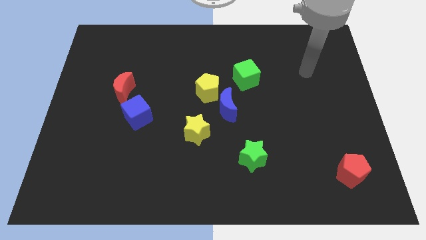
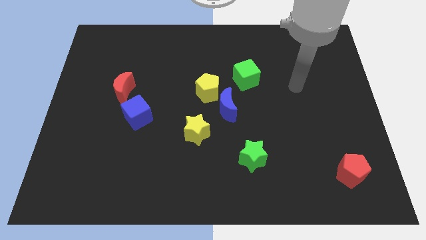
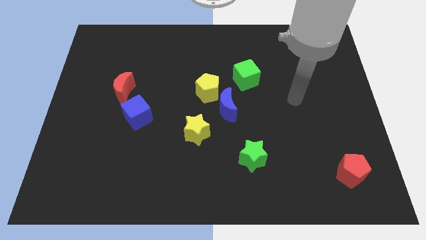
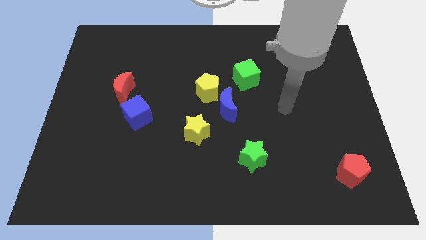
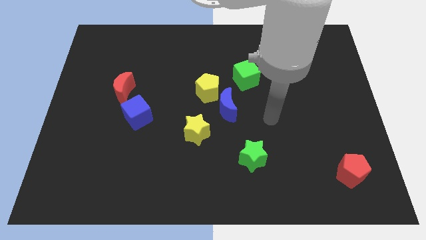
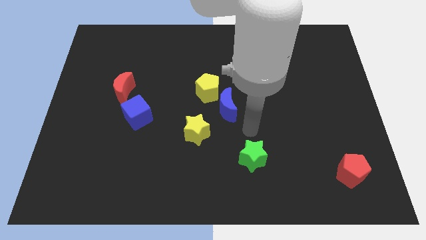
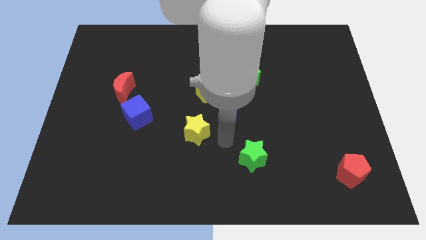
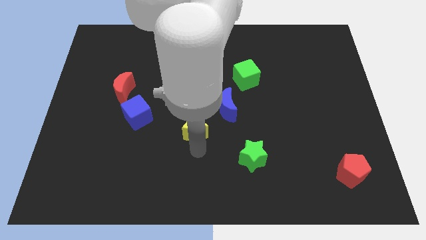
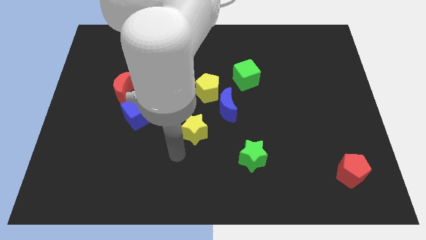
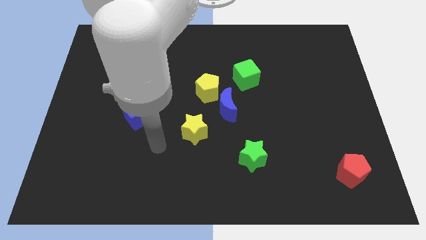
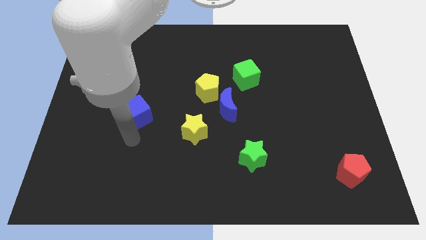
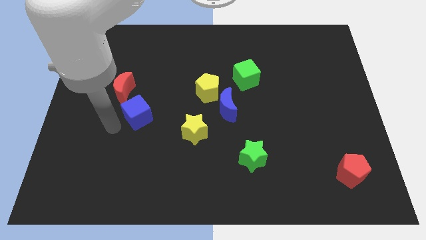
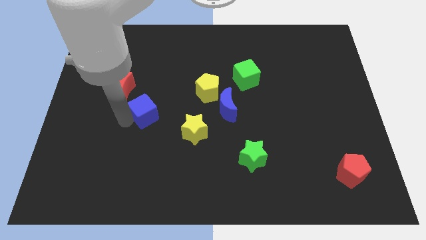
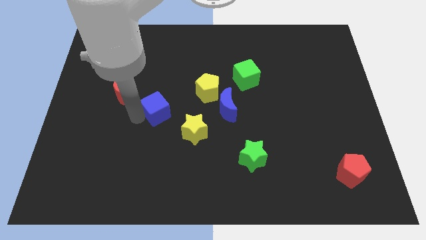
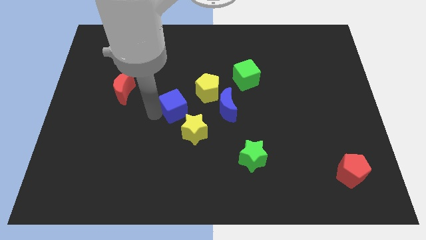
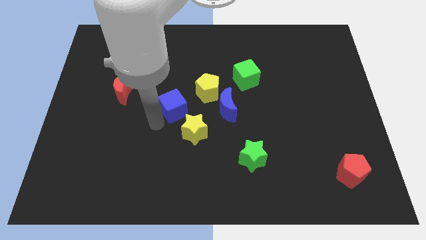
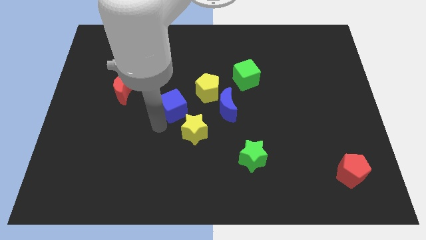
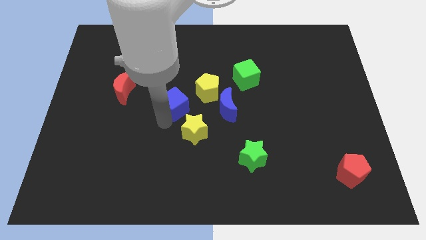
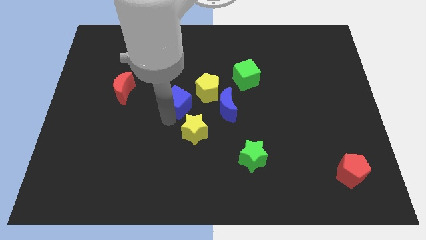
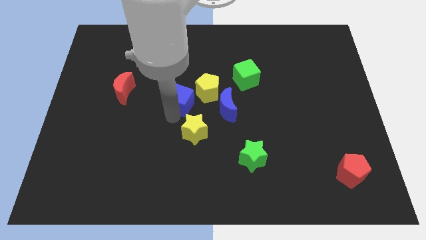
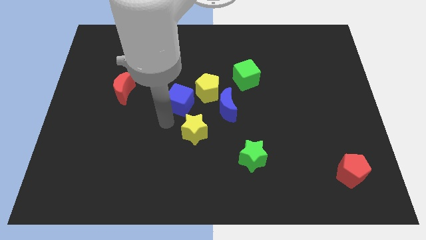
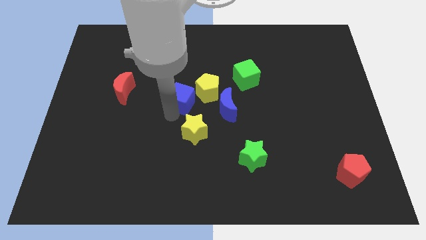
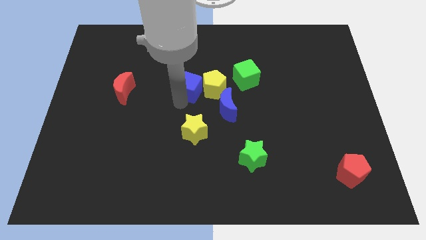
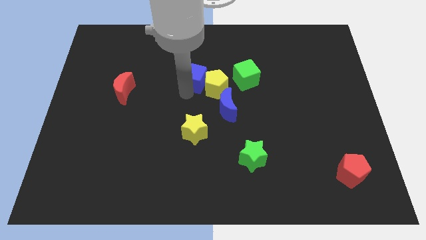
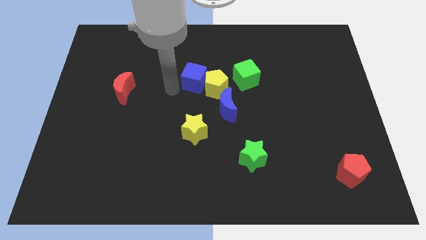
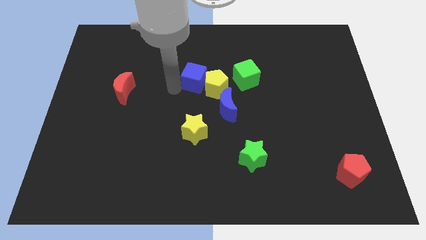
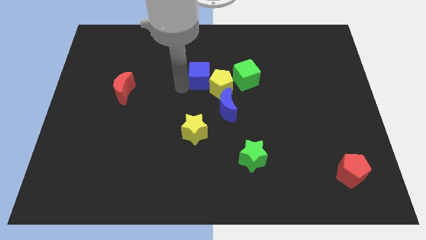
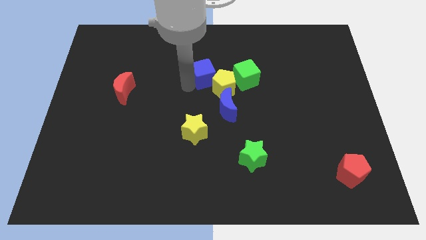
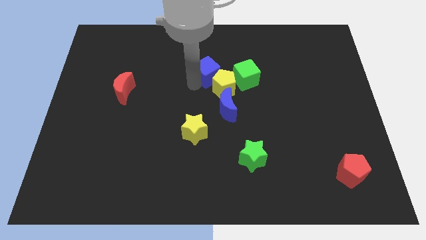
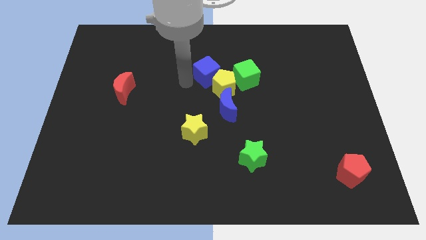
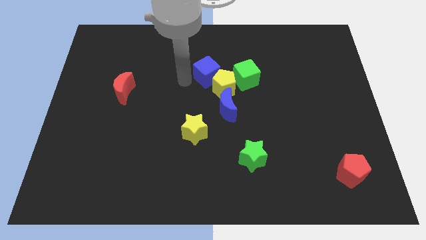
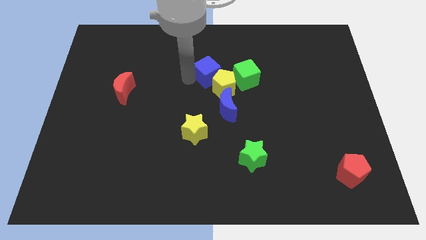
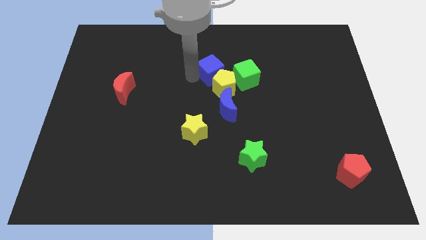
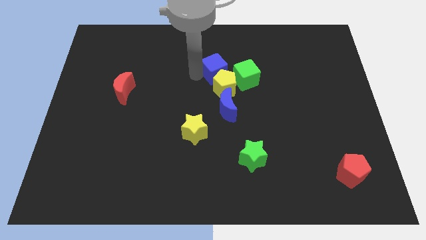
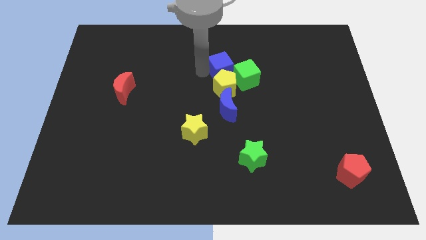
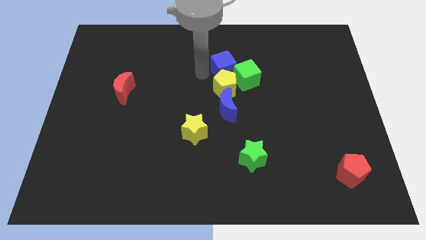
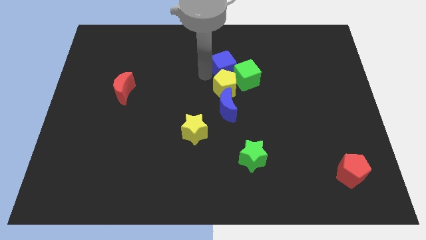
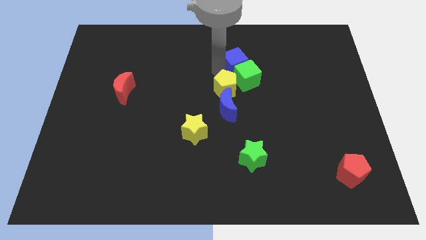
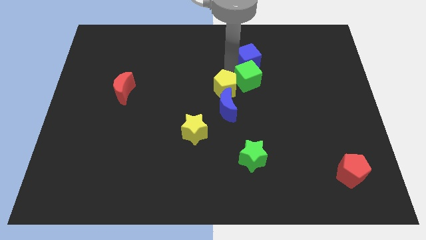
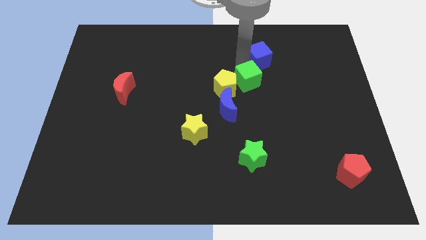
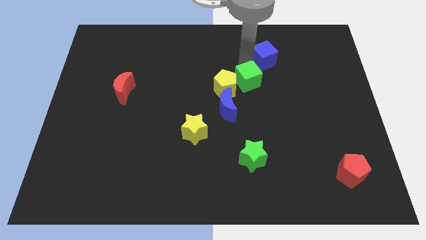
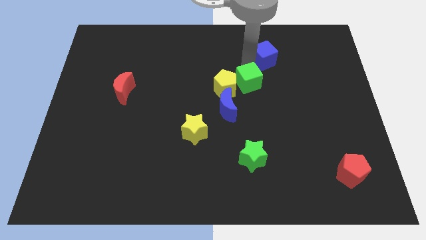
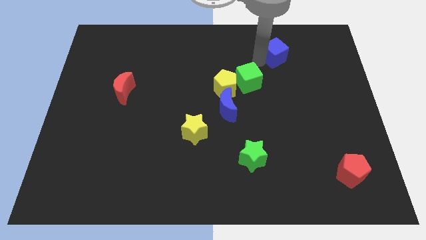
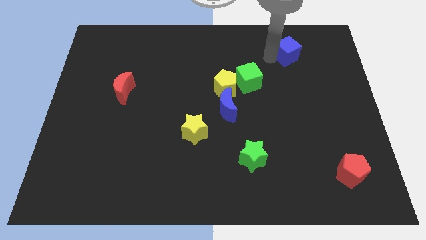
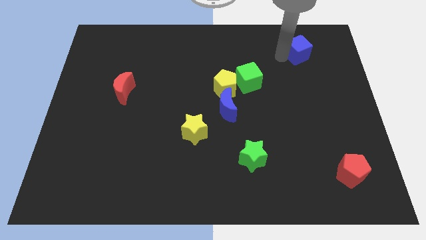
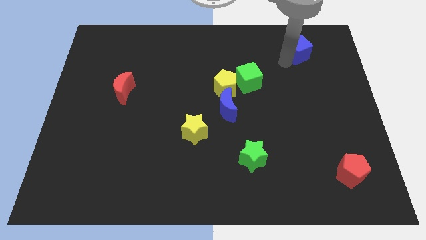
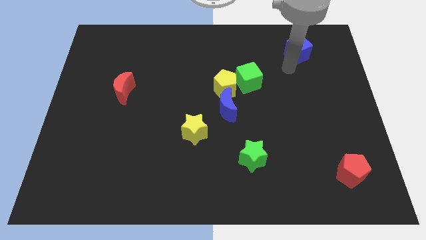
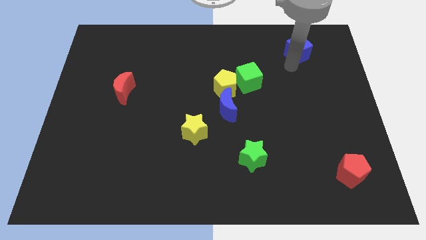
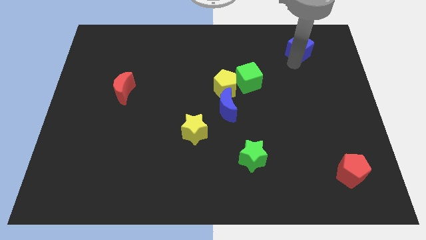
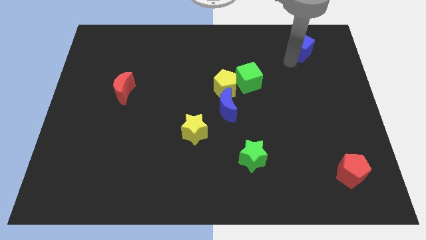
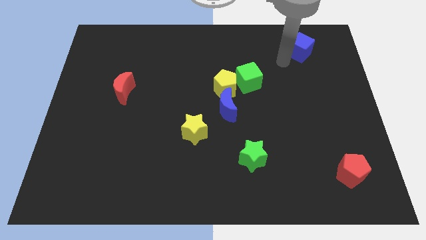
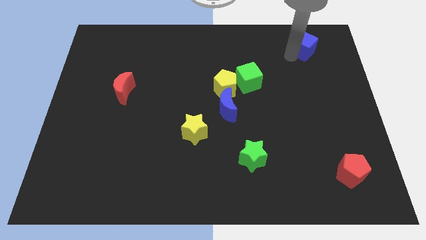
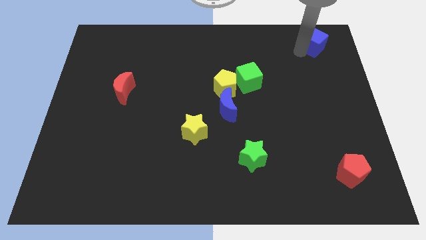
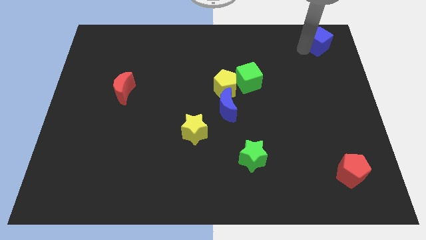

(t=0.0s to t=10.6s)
move the blue cube to the top right

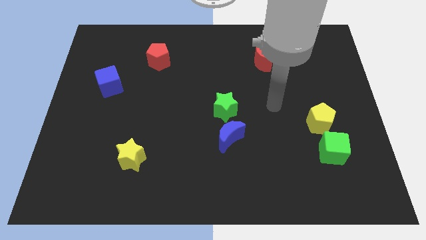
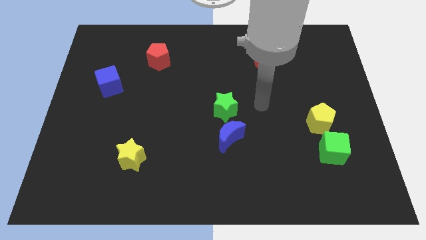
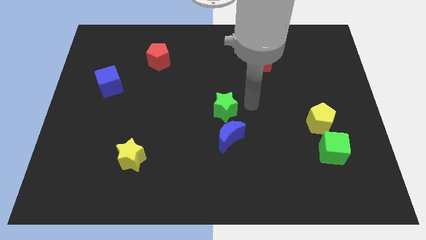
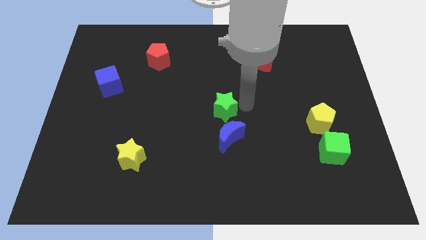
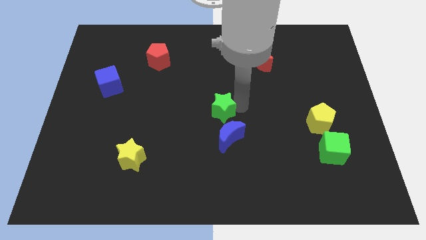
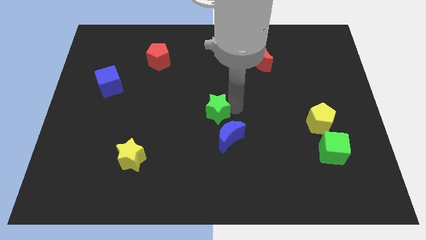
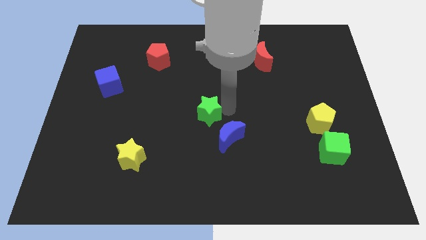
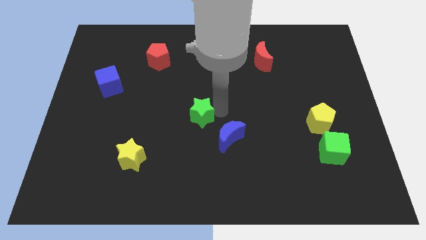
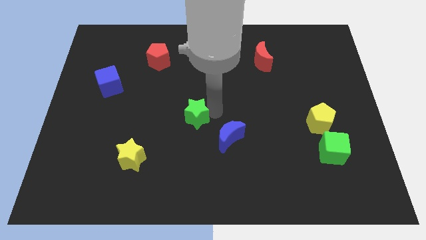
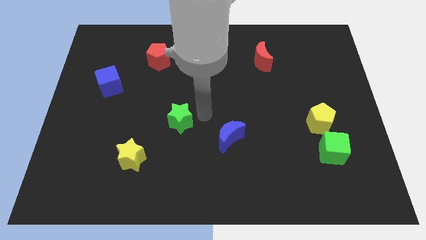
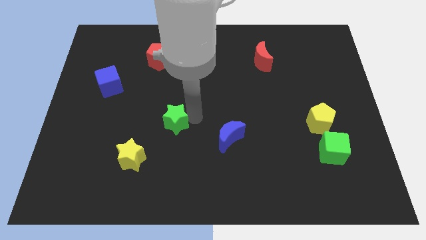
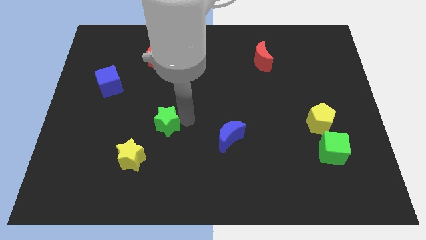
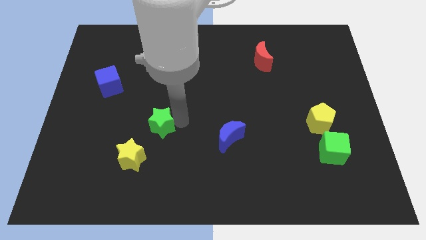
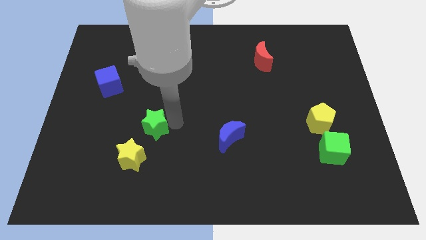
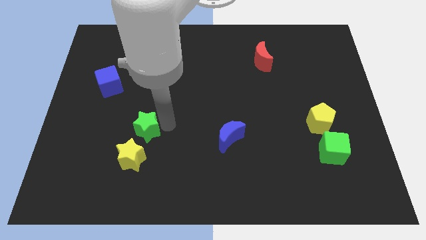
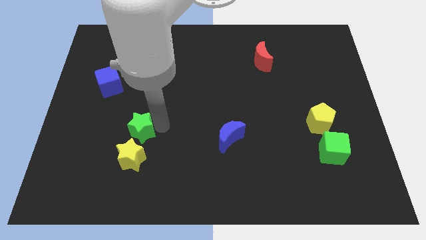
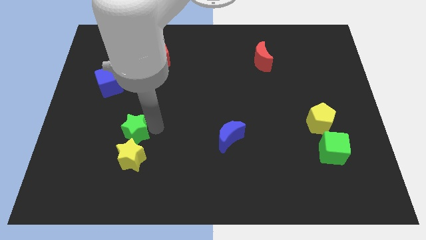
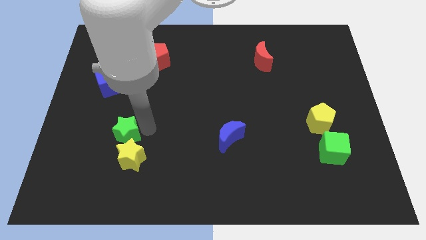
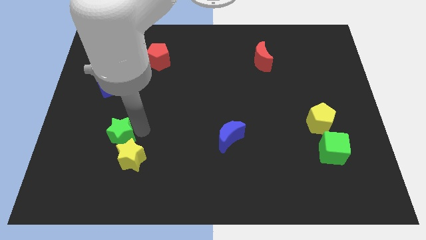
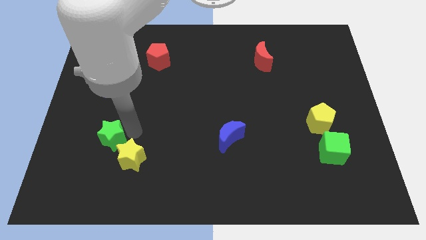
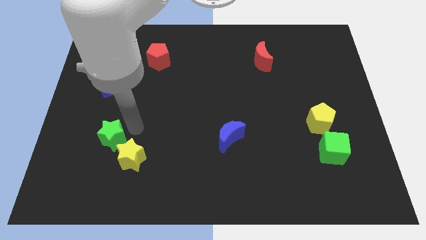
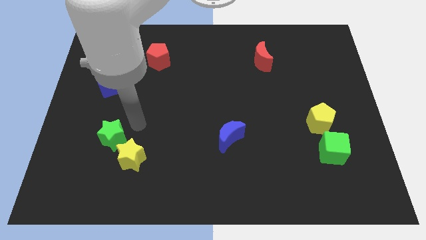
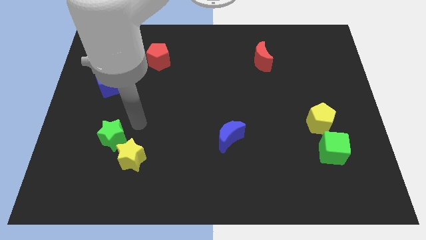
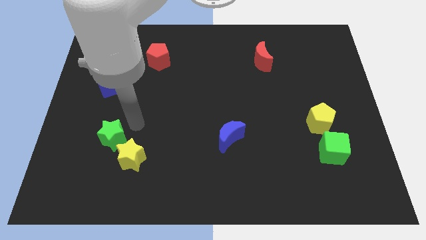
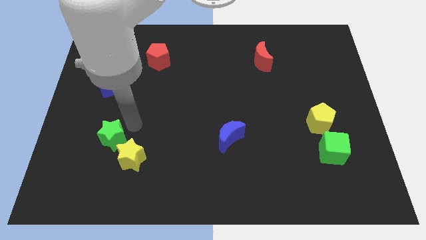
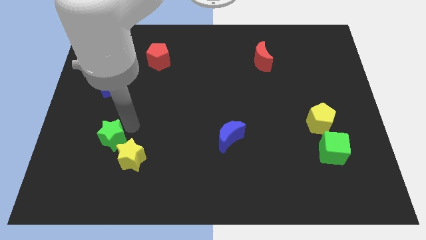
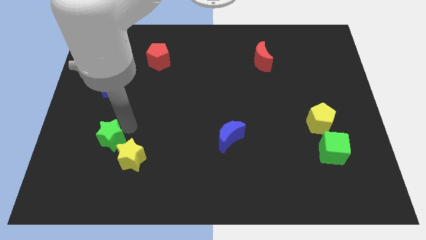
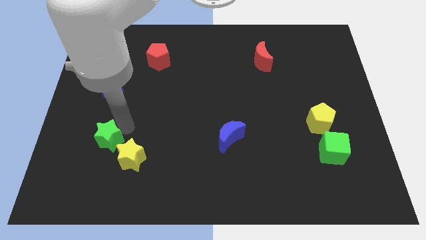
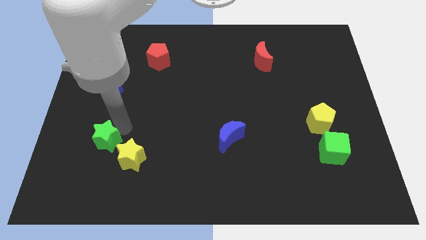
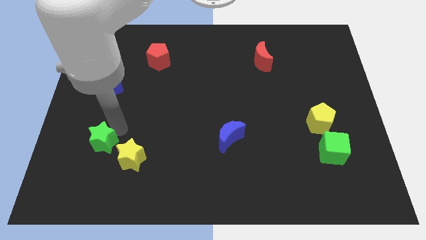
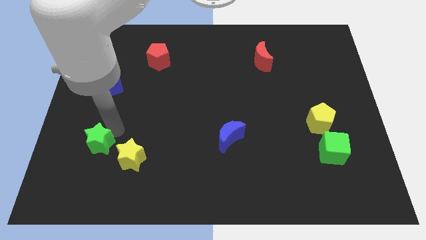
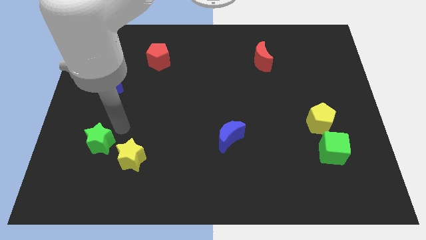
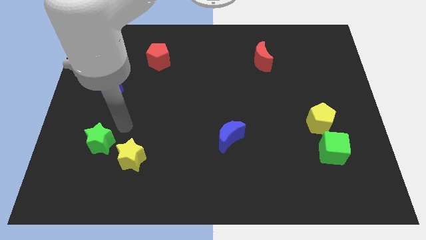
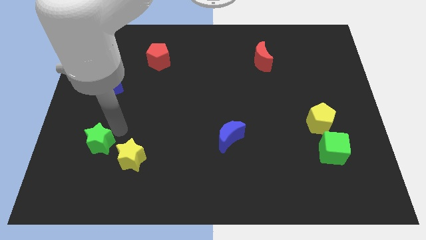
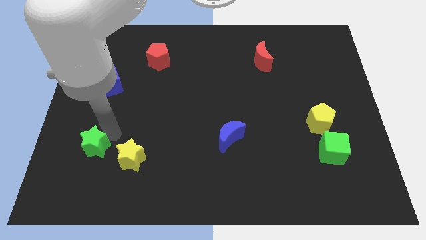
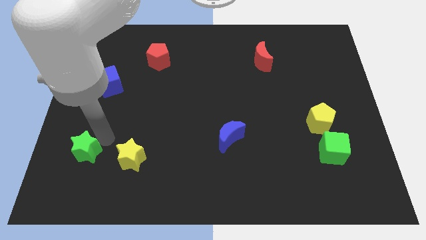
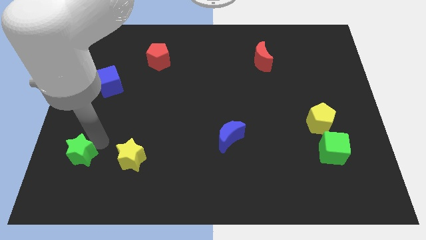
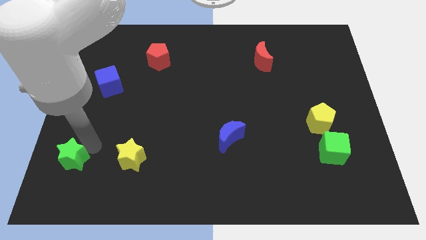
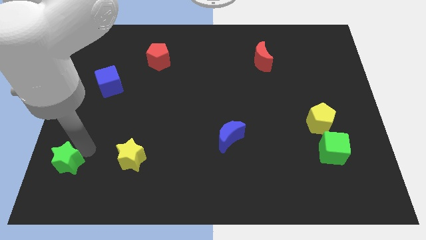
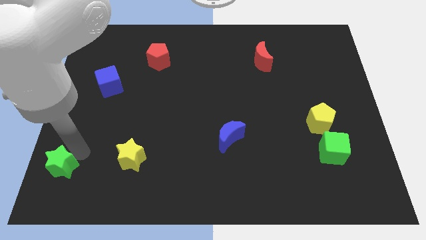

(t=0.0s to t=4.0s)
move the green star to the lower left corner
